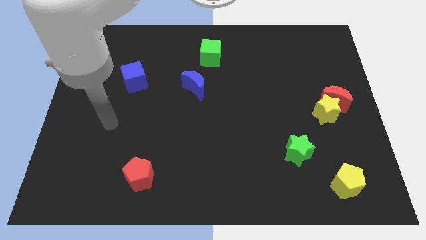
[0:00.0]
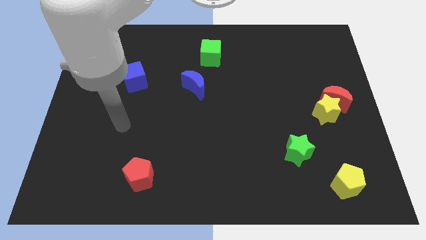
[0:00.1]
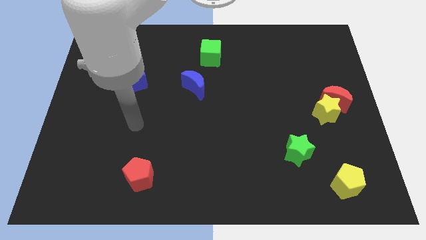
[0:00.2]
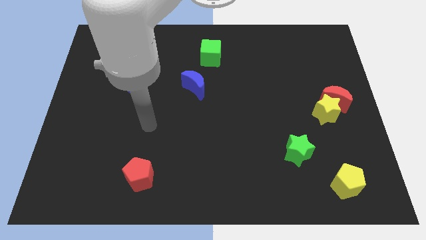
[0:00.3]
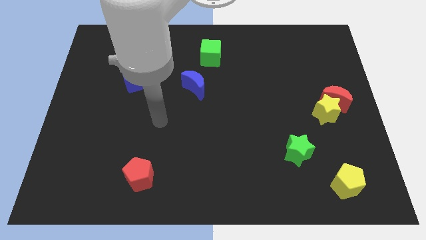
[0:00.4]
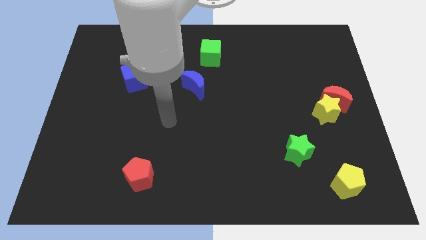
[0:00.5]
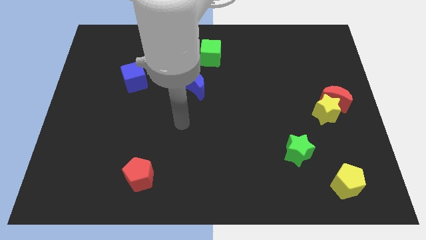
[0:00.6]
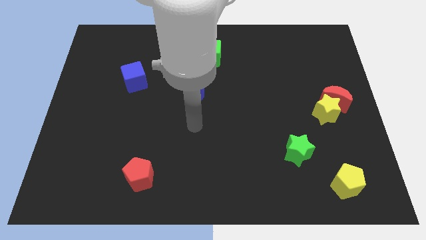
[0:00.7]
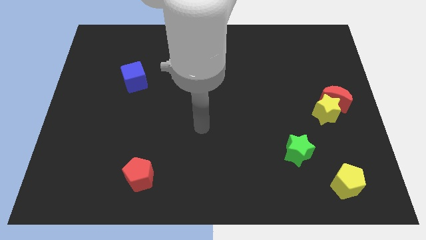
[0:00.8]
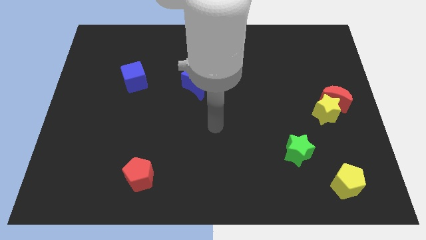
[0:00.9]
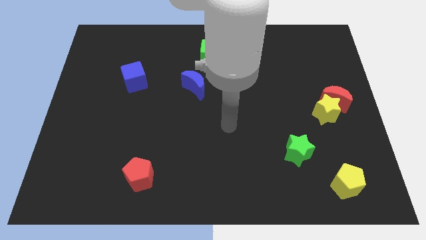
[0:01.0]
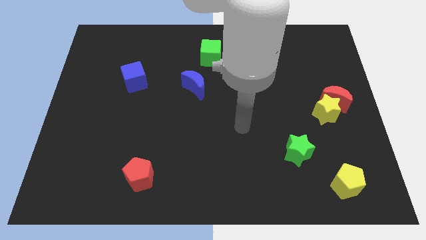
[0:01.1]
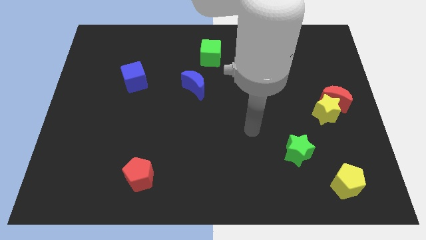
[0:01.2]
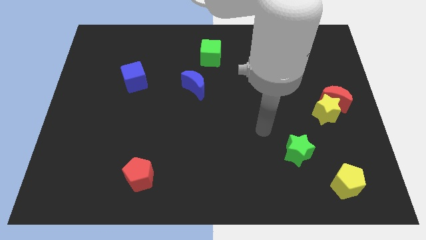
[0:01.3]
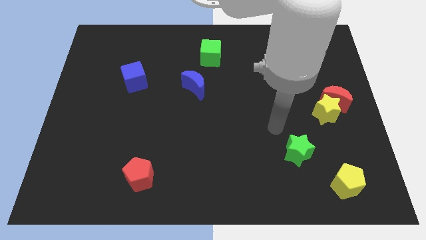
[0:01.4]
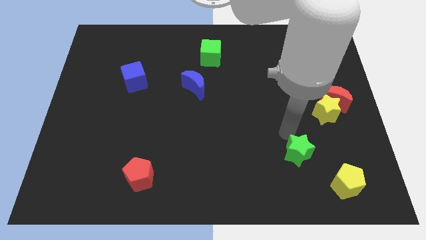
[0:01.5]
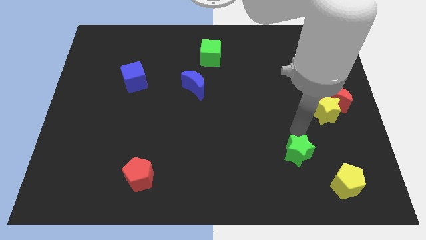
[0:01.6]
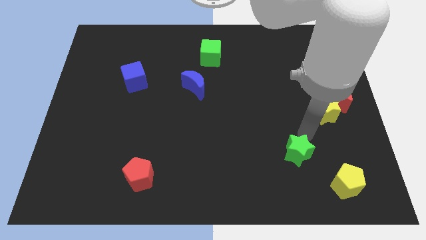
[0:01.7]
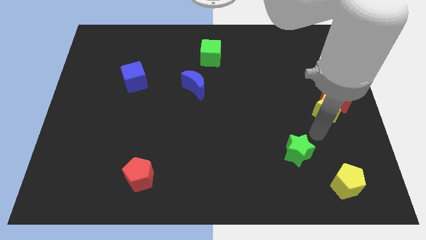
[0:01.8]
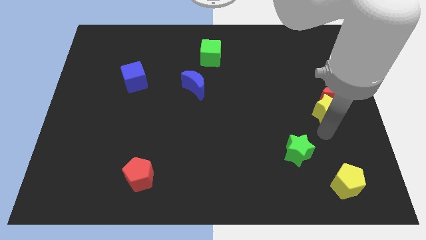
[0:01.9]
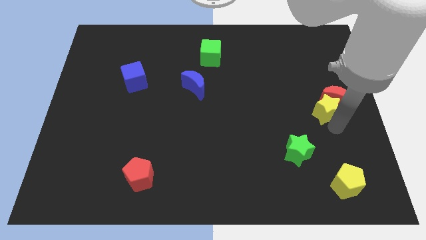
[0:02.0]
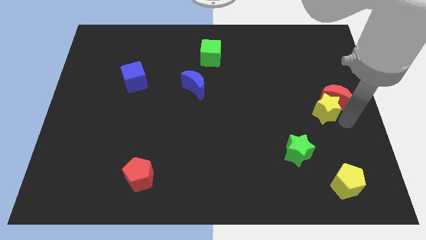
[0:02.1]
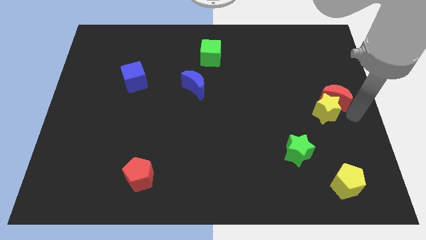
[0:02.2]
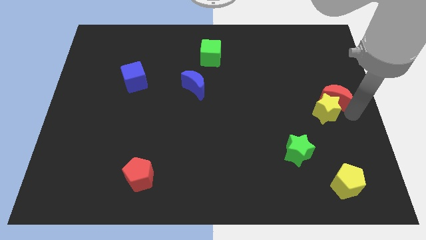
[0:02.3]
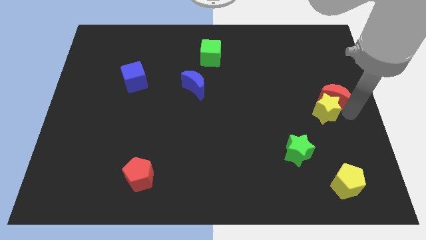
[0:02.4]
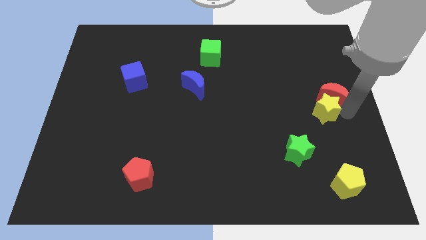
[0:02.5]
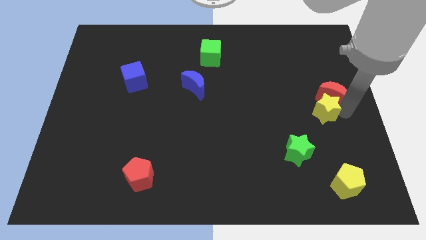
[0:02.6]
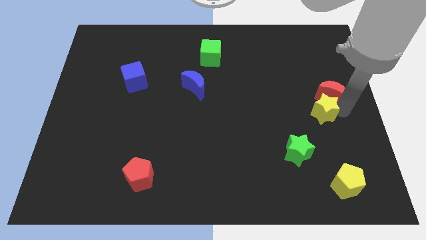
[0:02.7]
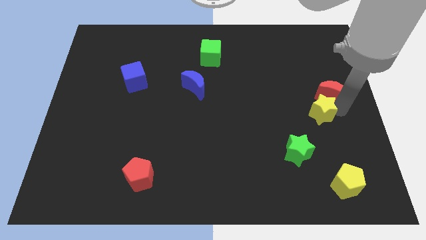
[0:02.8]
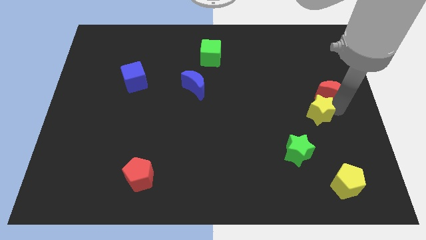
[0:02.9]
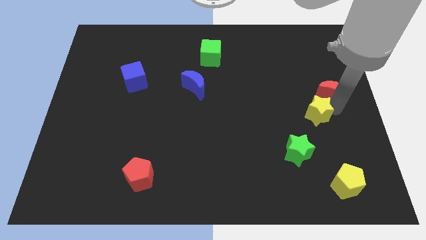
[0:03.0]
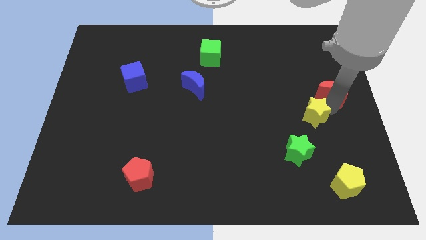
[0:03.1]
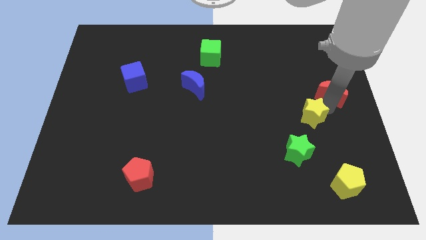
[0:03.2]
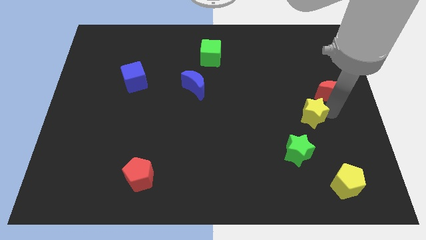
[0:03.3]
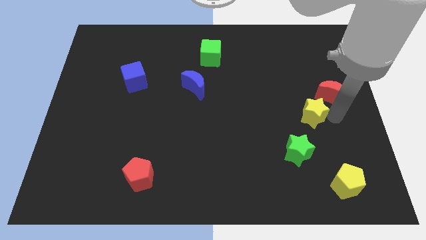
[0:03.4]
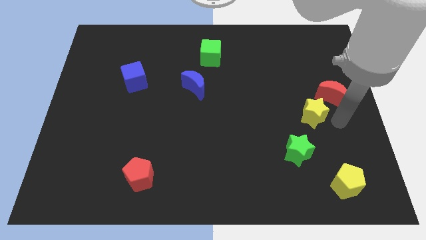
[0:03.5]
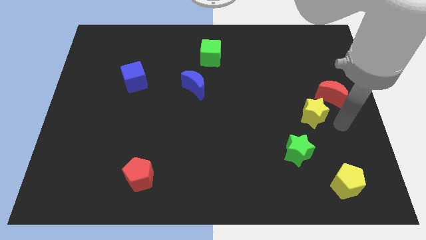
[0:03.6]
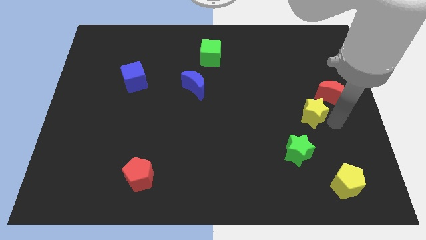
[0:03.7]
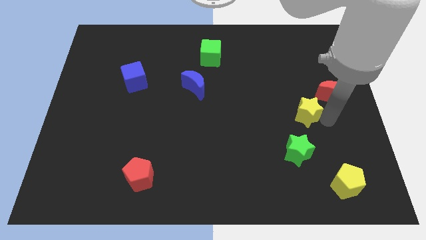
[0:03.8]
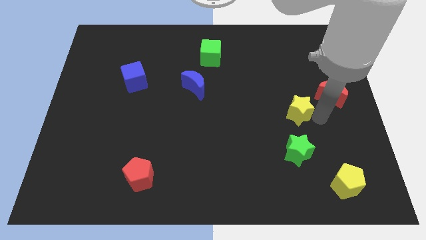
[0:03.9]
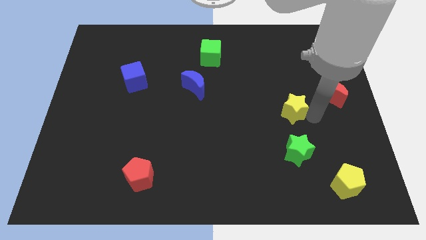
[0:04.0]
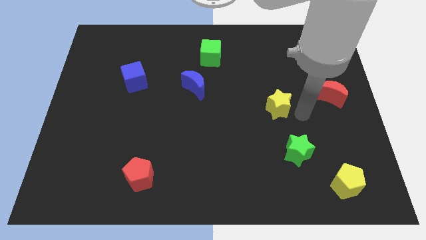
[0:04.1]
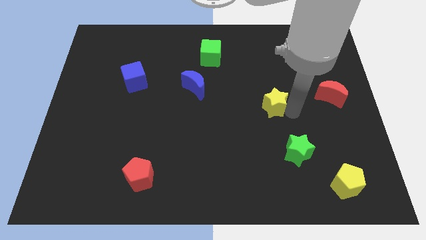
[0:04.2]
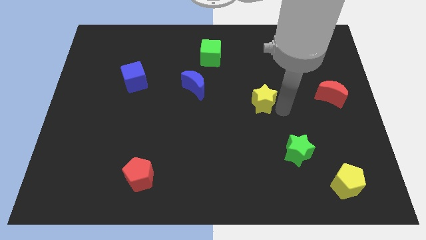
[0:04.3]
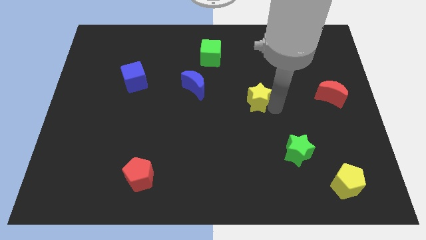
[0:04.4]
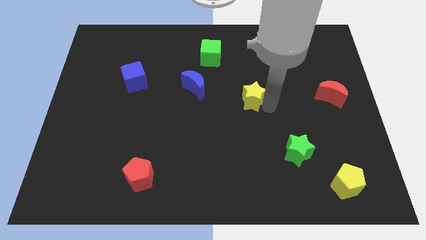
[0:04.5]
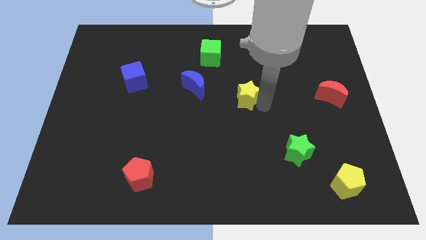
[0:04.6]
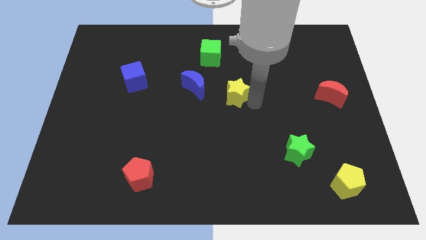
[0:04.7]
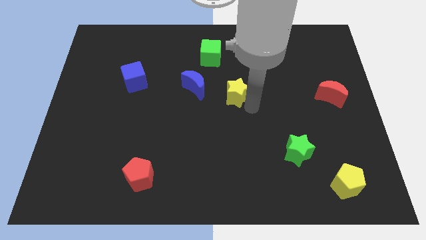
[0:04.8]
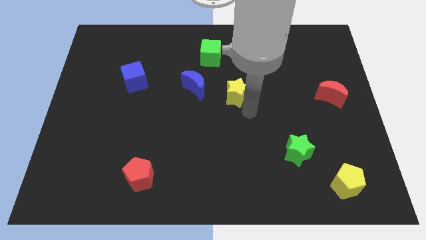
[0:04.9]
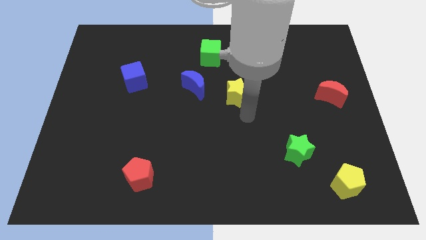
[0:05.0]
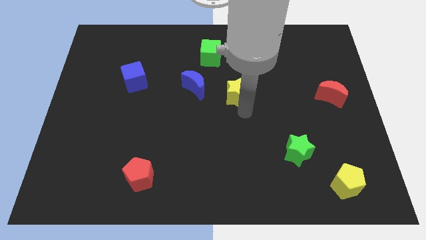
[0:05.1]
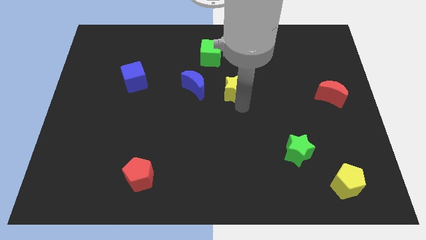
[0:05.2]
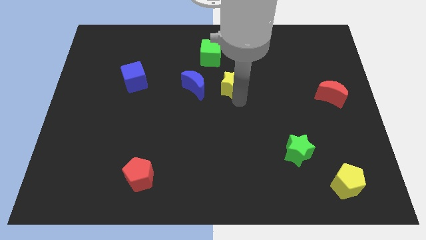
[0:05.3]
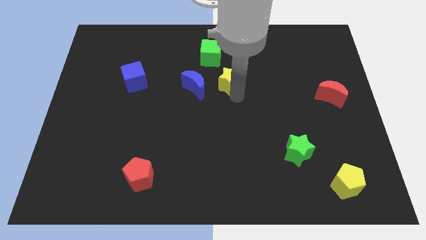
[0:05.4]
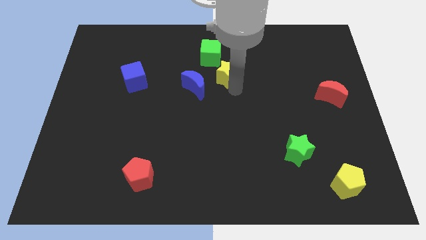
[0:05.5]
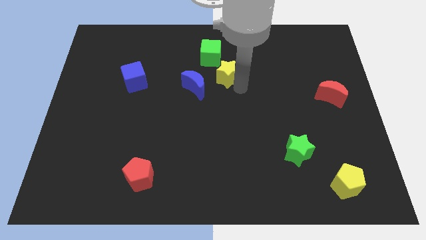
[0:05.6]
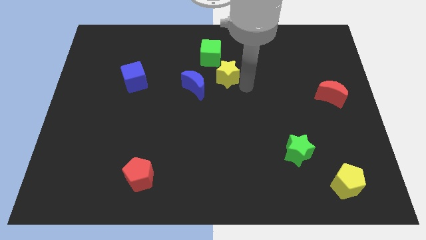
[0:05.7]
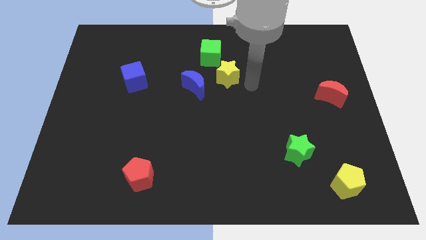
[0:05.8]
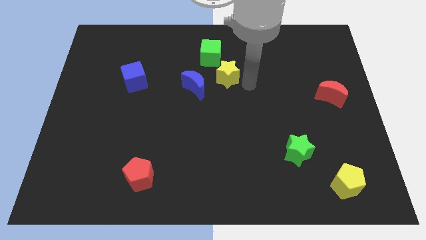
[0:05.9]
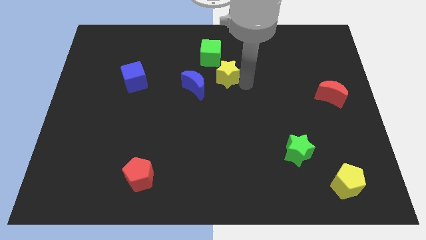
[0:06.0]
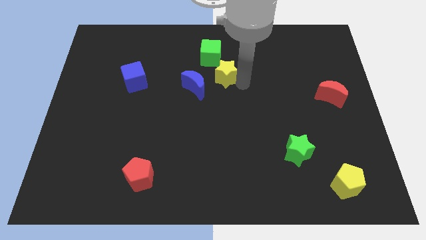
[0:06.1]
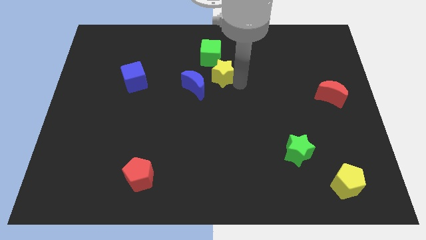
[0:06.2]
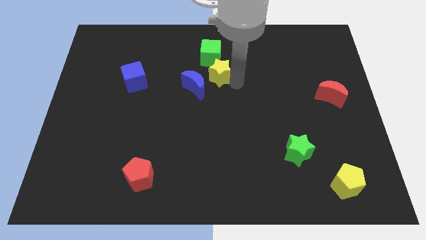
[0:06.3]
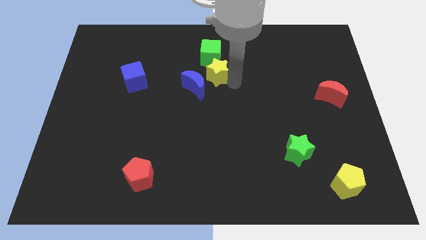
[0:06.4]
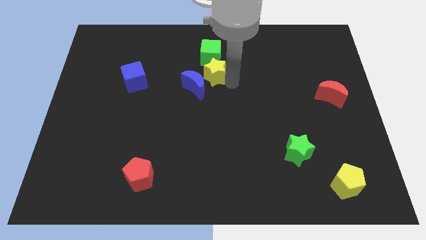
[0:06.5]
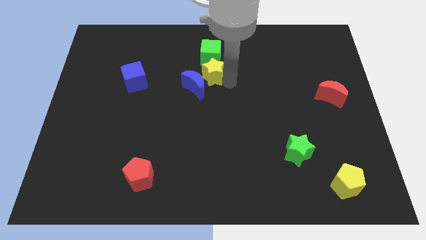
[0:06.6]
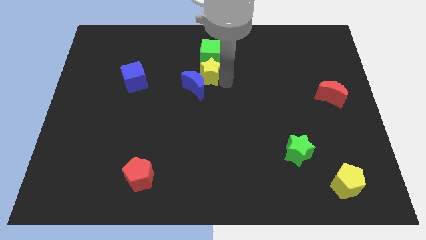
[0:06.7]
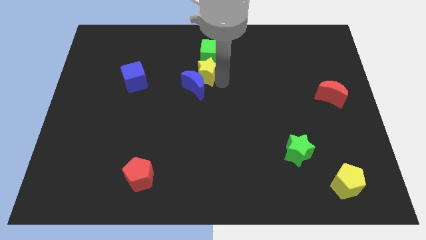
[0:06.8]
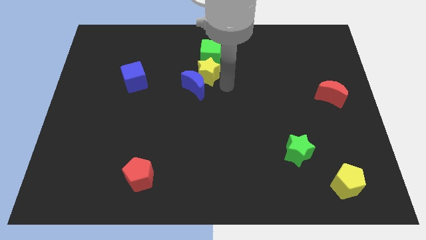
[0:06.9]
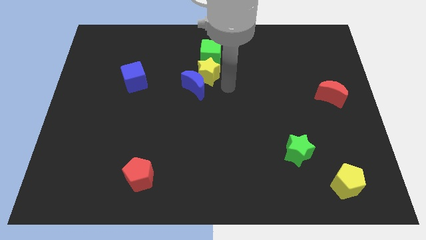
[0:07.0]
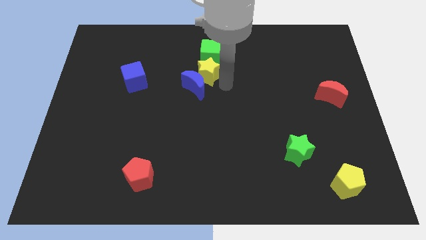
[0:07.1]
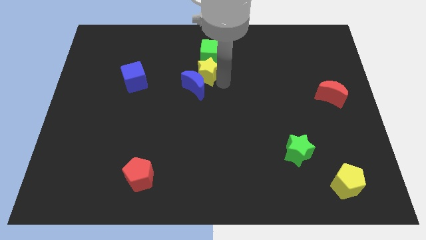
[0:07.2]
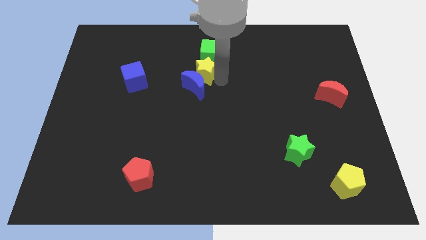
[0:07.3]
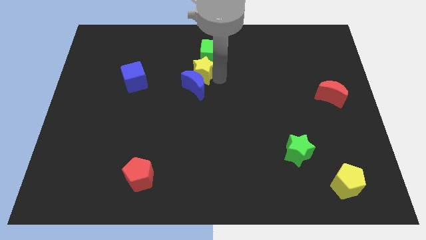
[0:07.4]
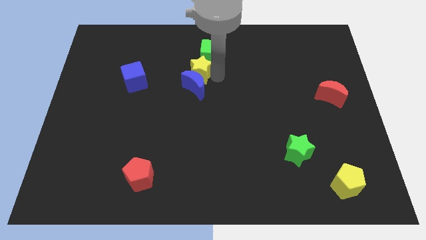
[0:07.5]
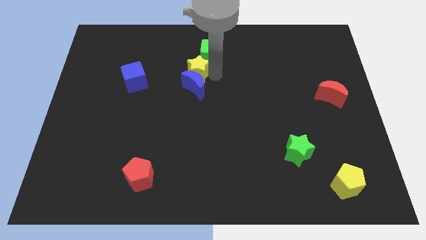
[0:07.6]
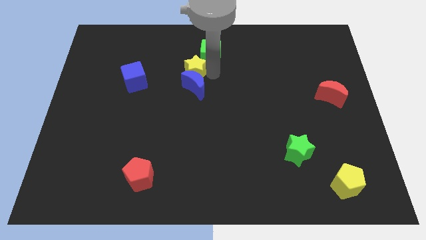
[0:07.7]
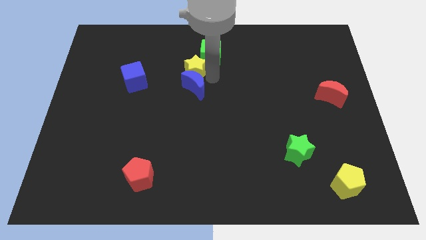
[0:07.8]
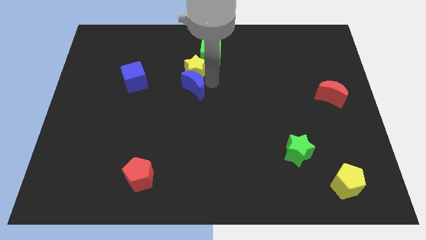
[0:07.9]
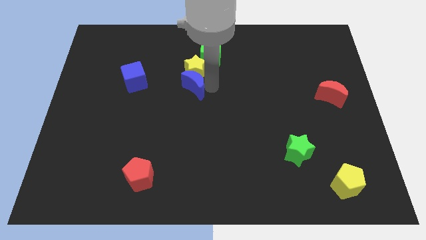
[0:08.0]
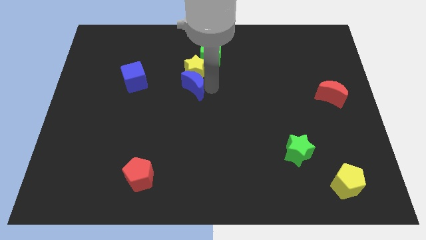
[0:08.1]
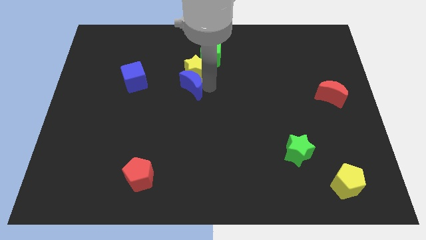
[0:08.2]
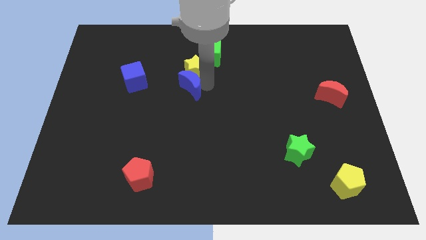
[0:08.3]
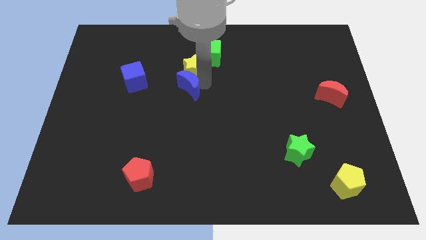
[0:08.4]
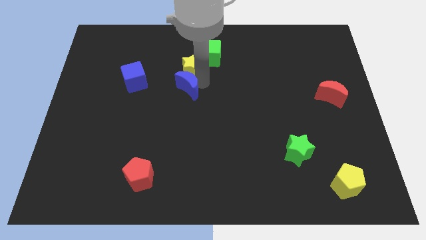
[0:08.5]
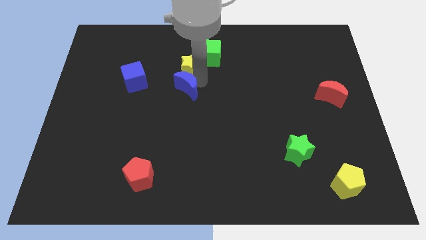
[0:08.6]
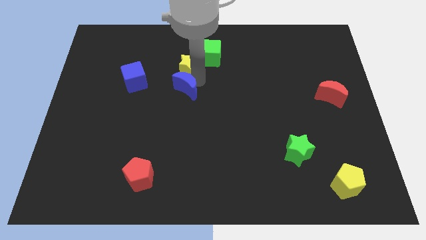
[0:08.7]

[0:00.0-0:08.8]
move the yellow star to the left side of the green cube
